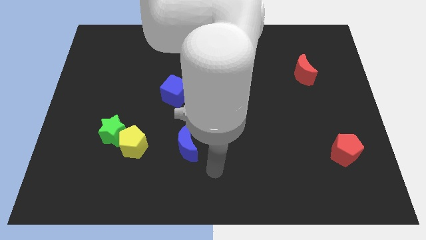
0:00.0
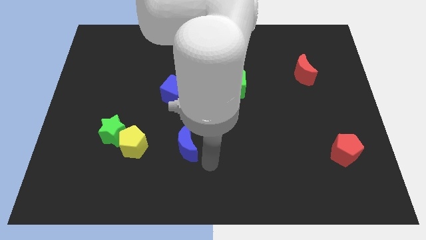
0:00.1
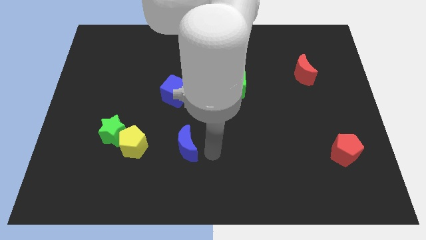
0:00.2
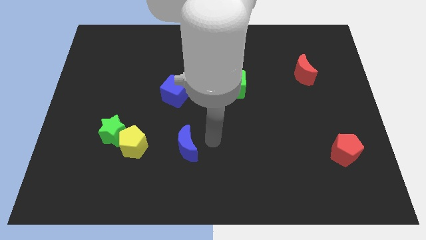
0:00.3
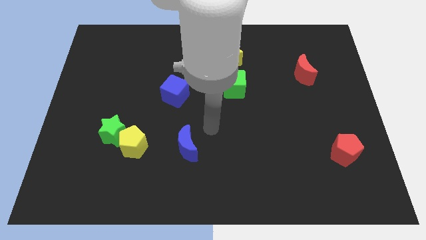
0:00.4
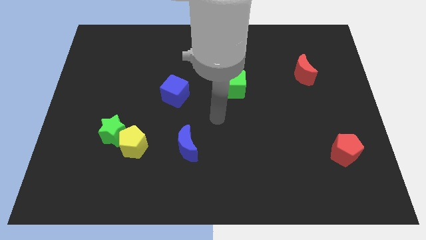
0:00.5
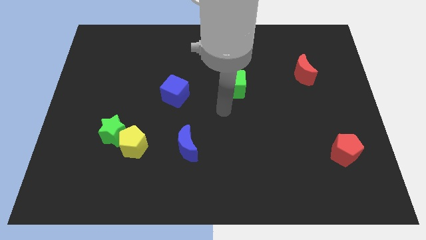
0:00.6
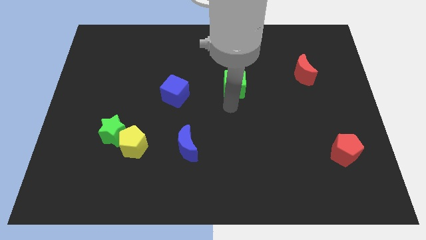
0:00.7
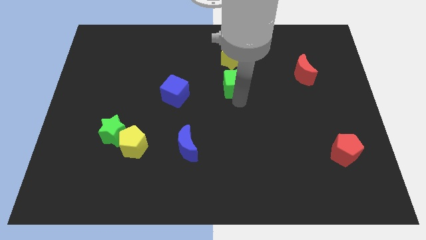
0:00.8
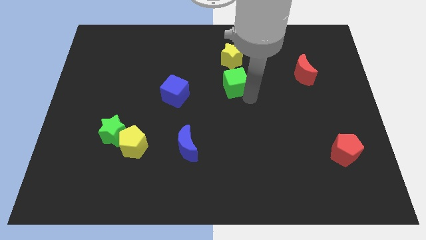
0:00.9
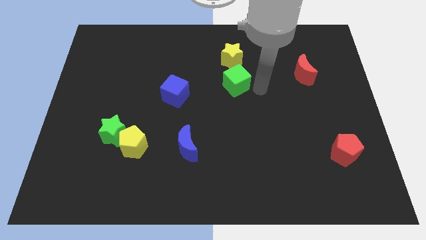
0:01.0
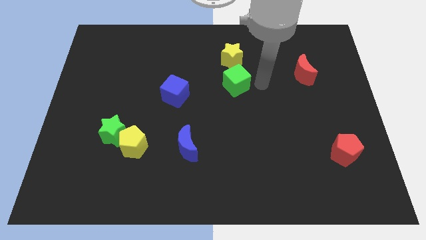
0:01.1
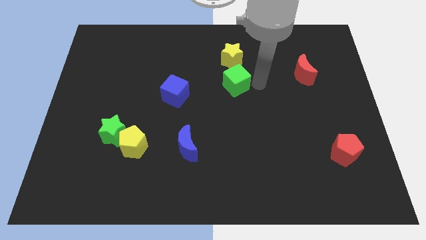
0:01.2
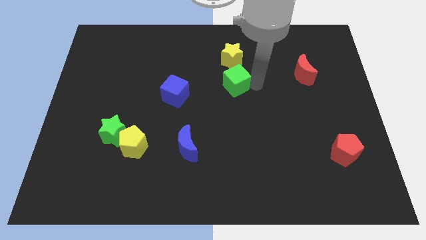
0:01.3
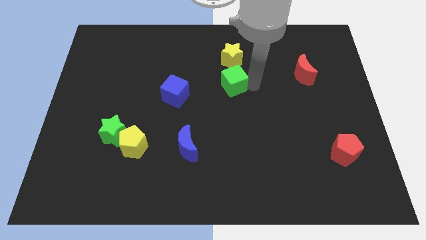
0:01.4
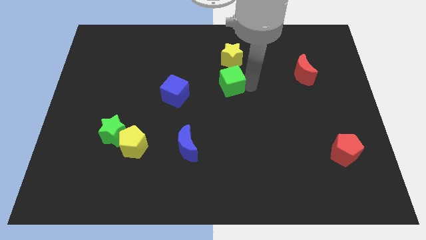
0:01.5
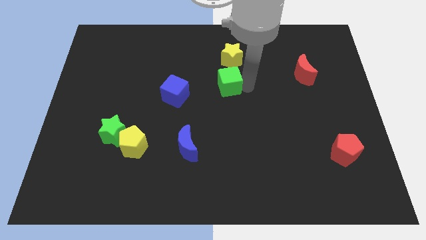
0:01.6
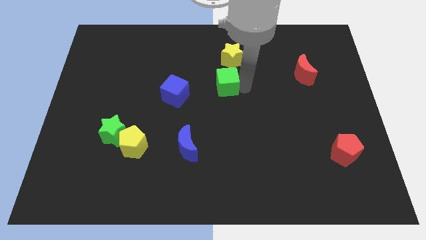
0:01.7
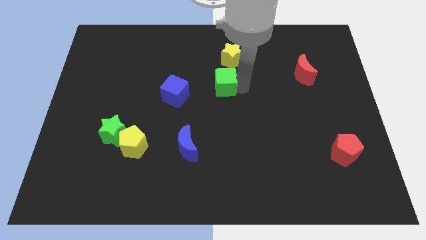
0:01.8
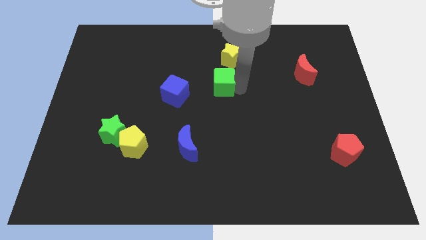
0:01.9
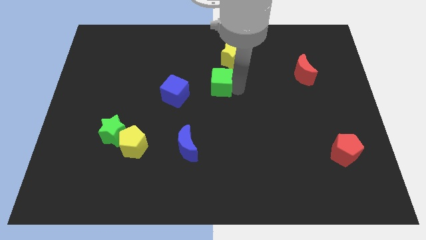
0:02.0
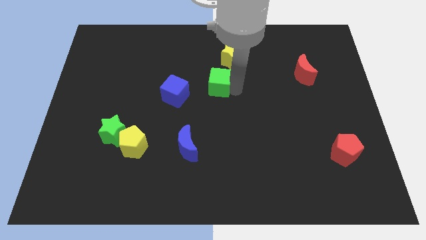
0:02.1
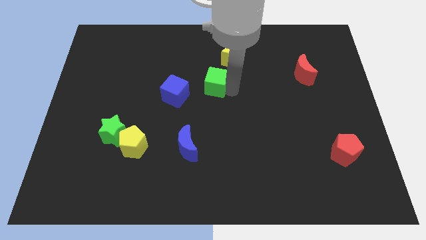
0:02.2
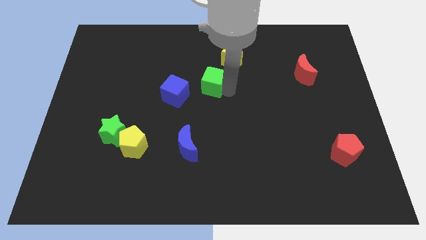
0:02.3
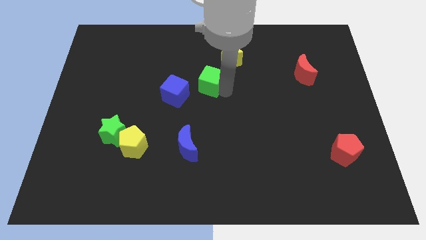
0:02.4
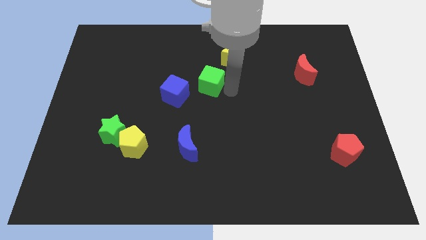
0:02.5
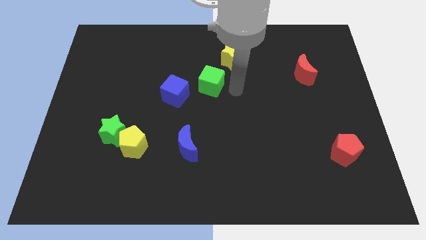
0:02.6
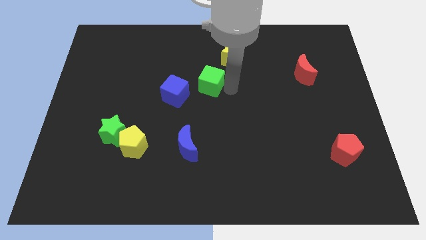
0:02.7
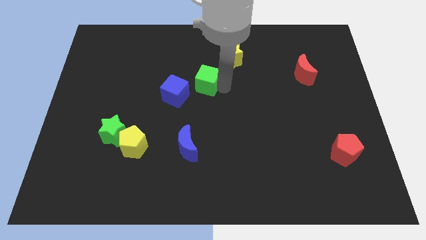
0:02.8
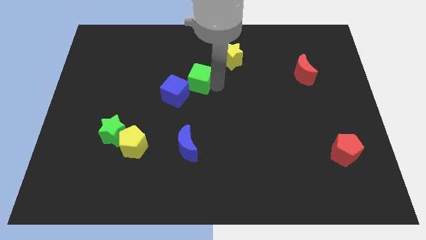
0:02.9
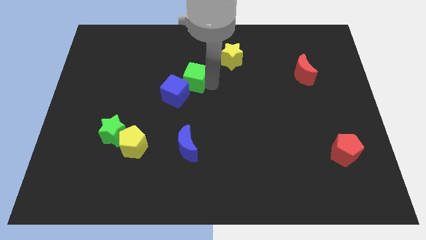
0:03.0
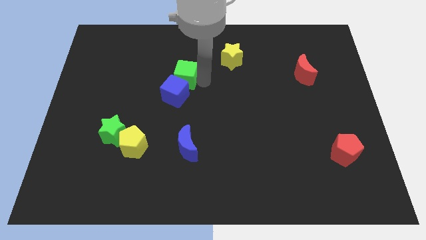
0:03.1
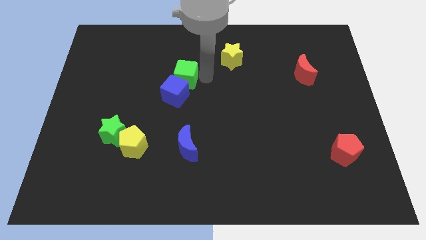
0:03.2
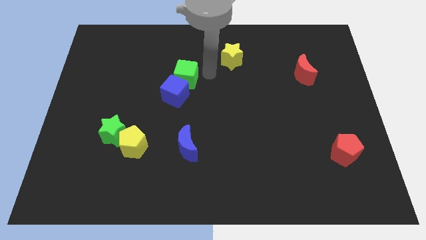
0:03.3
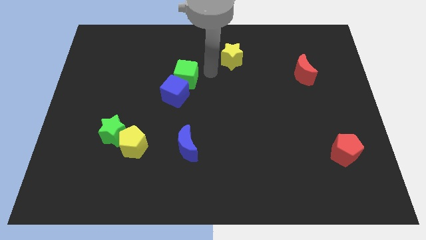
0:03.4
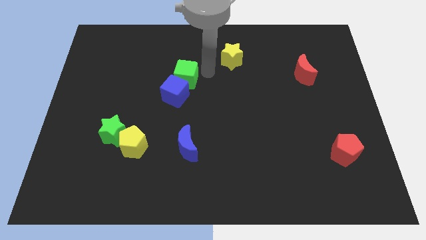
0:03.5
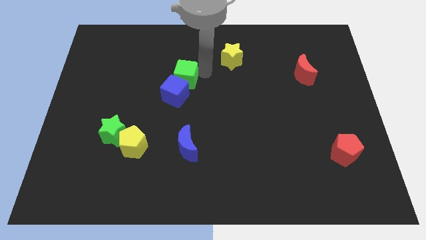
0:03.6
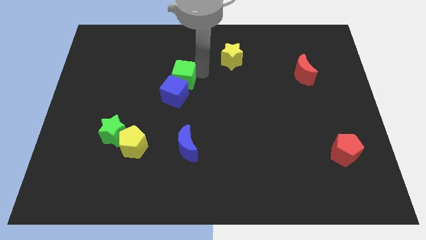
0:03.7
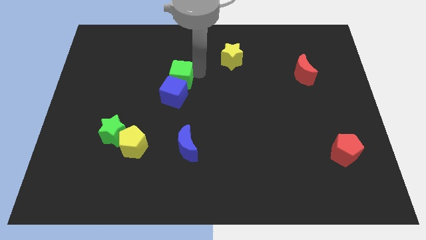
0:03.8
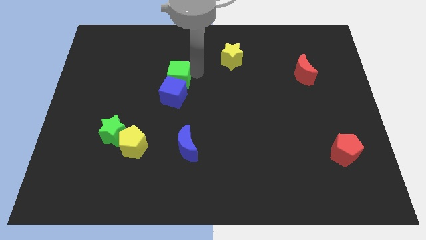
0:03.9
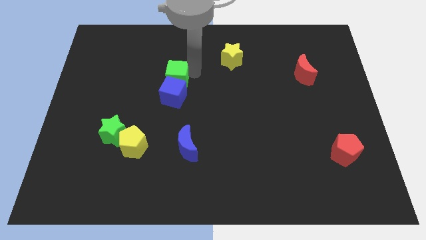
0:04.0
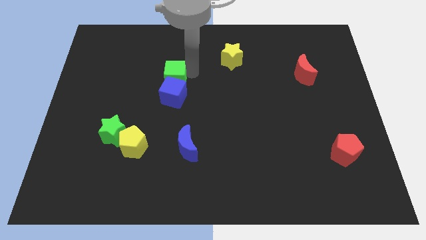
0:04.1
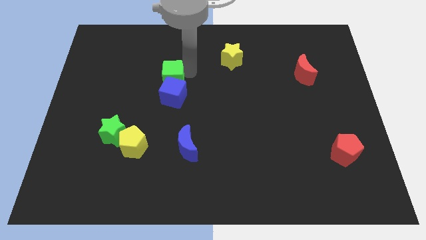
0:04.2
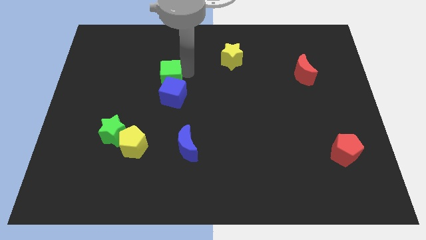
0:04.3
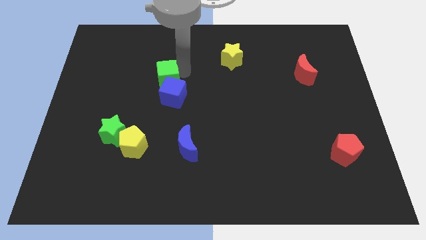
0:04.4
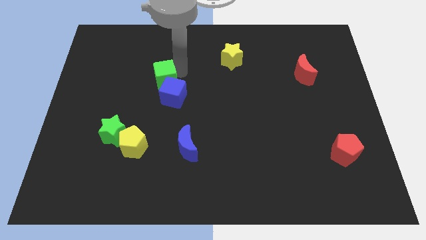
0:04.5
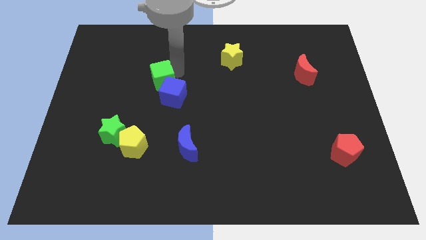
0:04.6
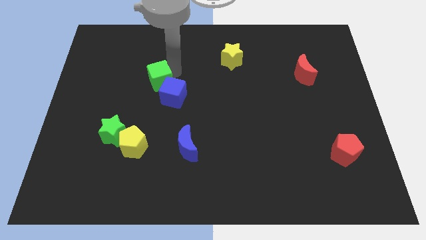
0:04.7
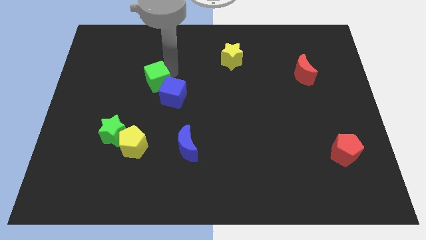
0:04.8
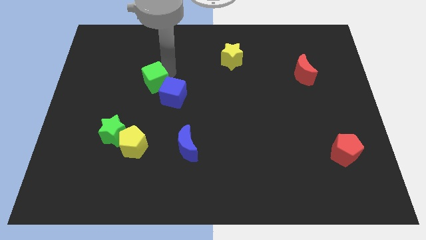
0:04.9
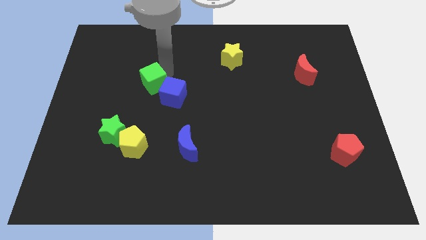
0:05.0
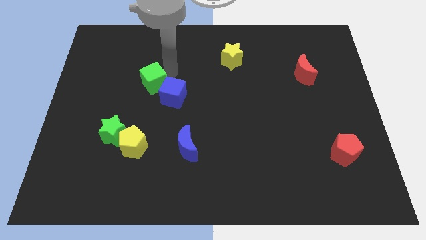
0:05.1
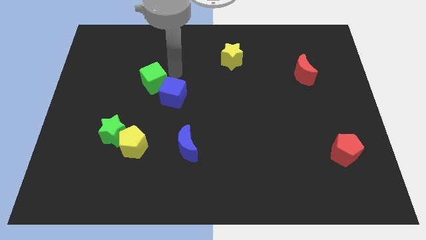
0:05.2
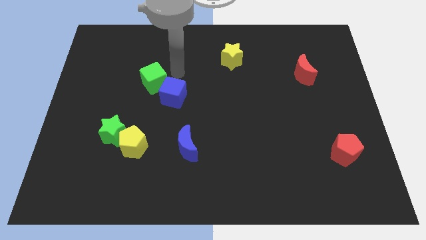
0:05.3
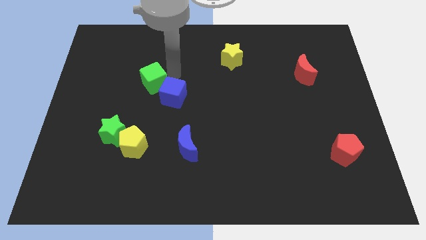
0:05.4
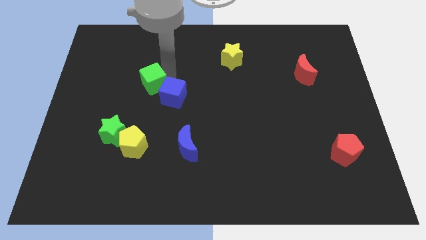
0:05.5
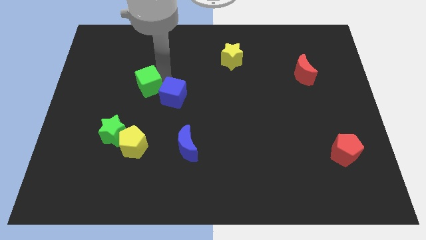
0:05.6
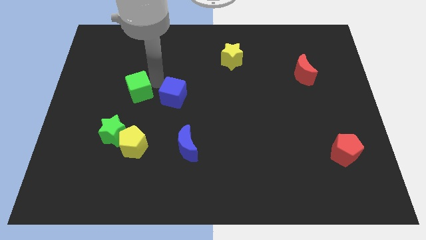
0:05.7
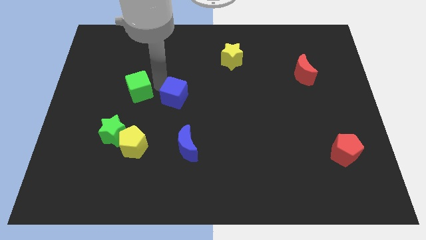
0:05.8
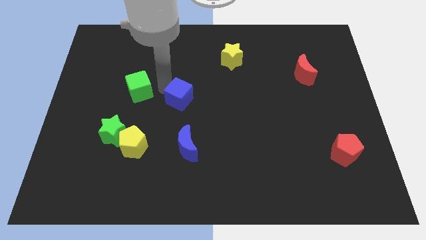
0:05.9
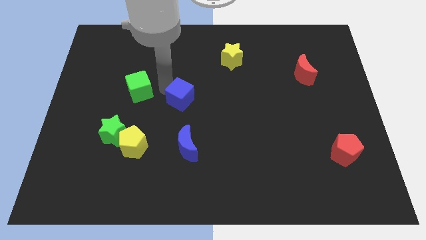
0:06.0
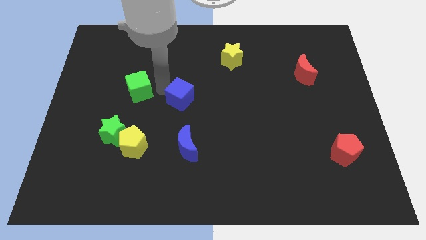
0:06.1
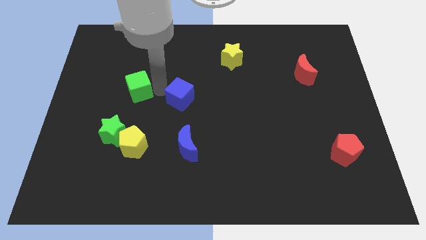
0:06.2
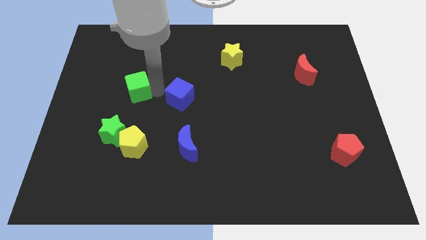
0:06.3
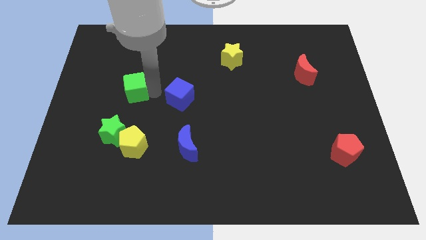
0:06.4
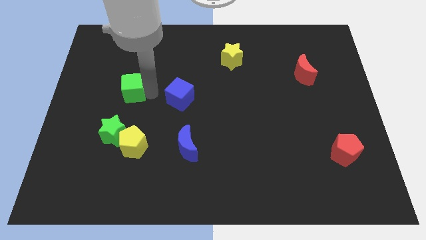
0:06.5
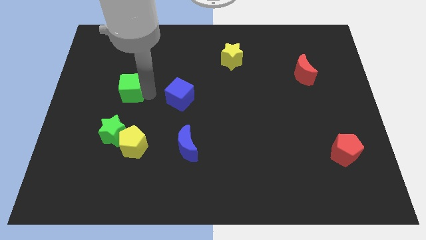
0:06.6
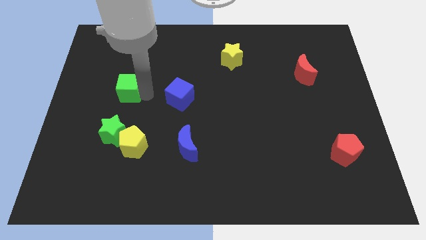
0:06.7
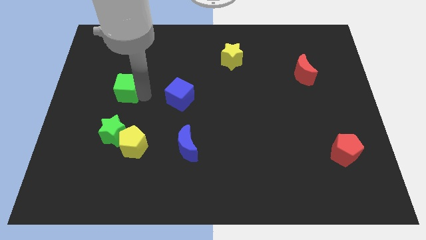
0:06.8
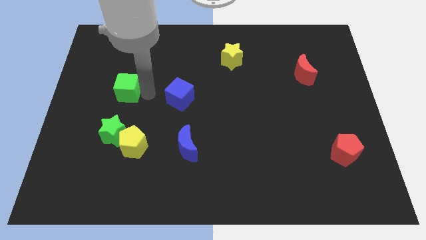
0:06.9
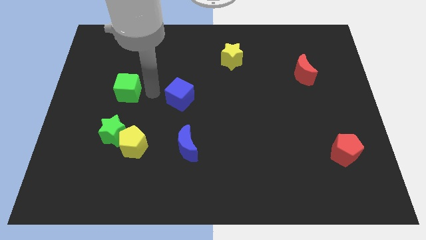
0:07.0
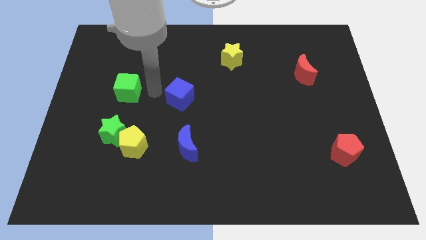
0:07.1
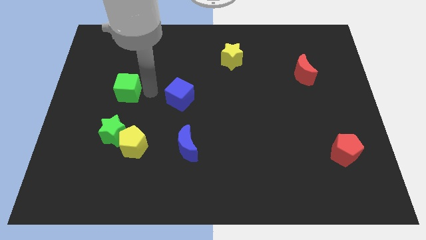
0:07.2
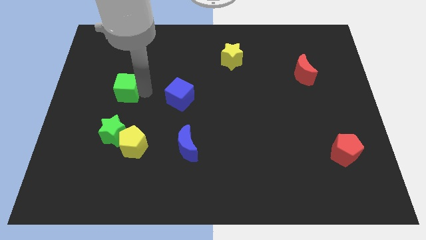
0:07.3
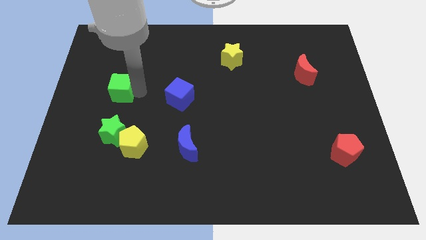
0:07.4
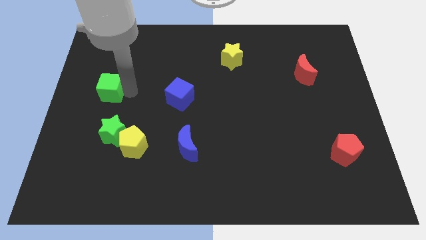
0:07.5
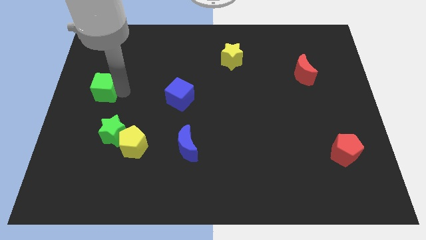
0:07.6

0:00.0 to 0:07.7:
push the green cube to the center left
